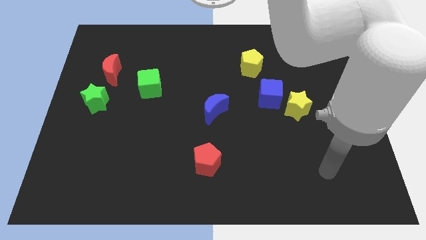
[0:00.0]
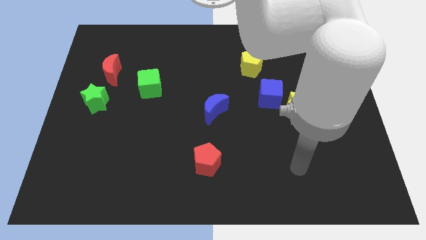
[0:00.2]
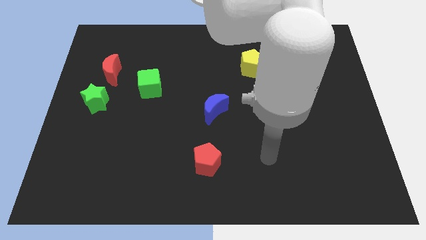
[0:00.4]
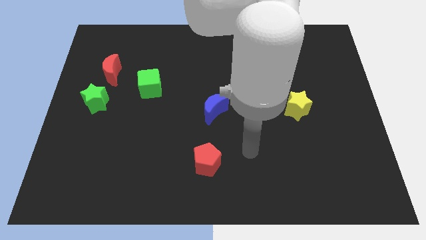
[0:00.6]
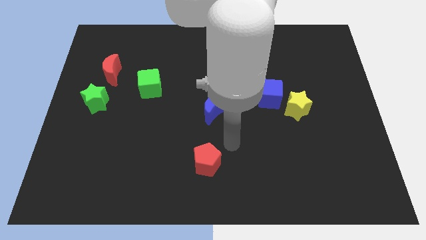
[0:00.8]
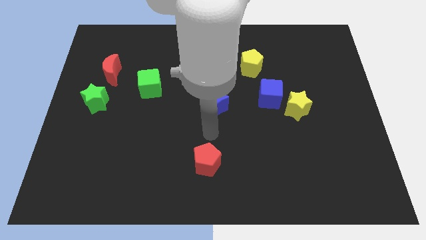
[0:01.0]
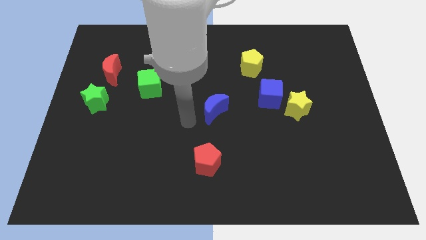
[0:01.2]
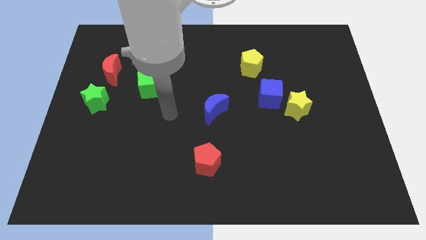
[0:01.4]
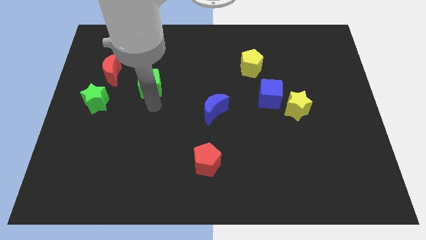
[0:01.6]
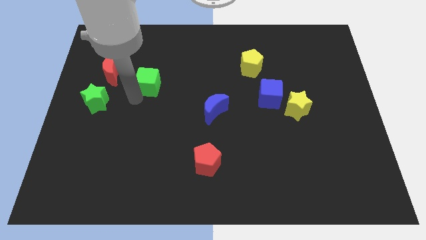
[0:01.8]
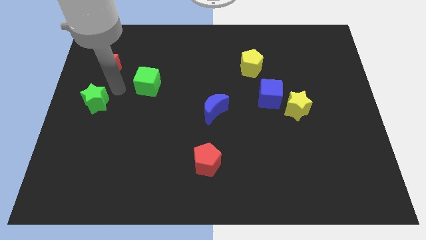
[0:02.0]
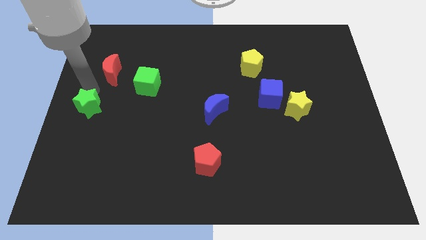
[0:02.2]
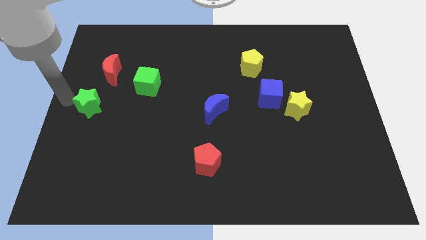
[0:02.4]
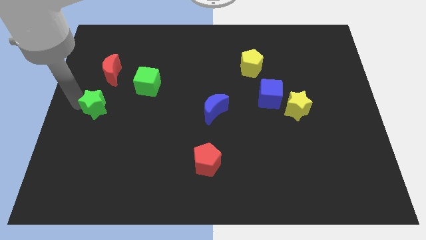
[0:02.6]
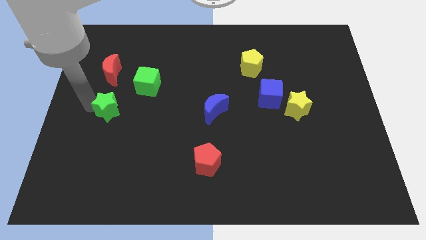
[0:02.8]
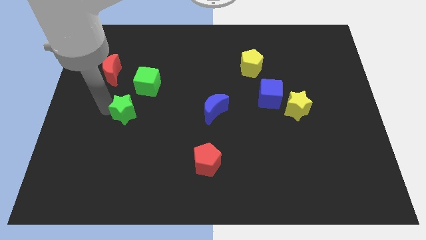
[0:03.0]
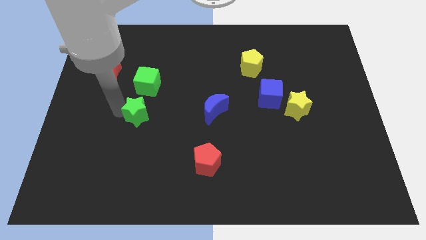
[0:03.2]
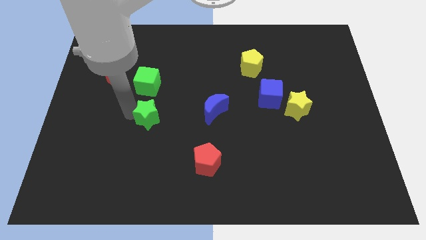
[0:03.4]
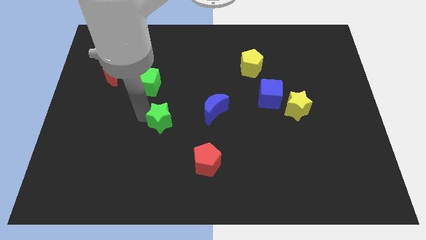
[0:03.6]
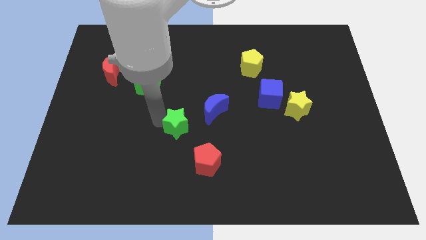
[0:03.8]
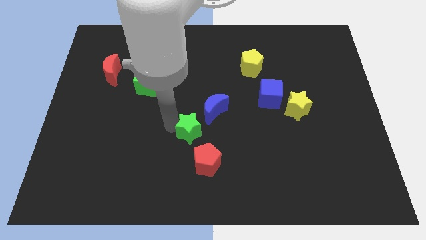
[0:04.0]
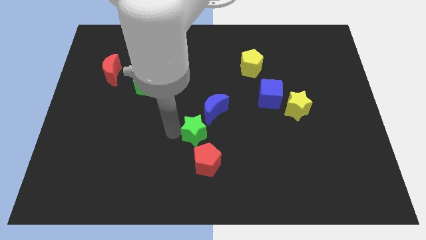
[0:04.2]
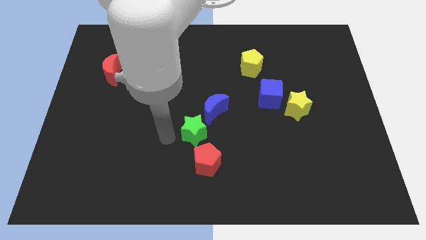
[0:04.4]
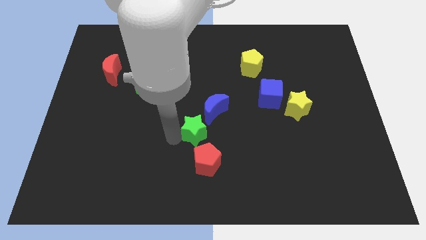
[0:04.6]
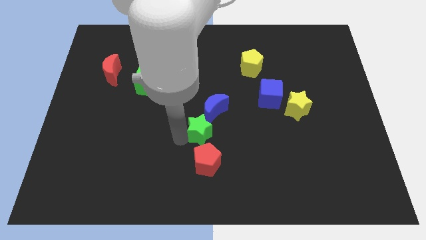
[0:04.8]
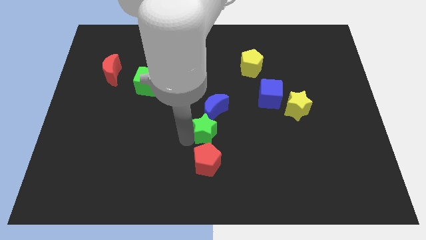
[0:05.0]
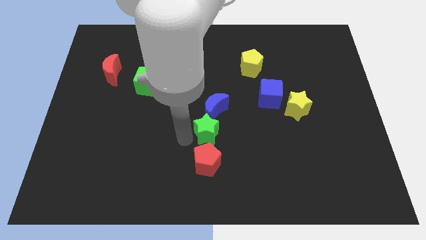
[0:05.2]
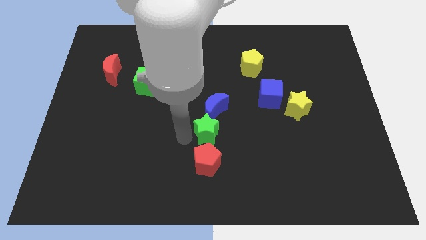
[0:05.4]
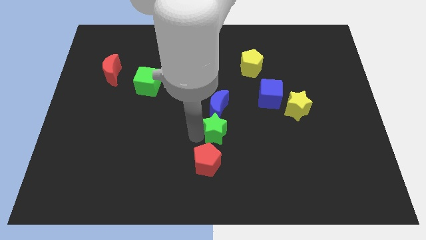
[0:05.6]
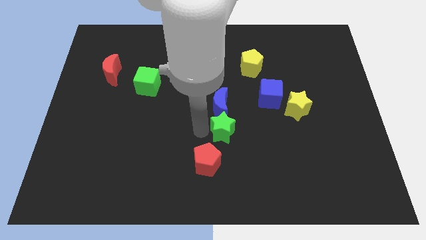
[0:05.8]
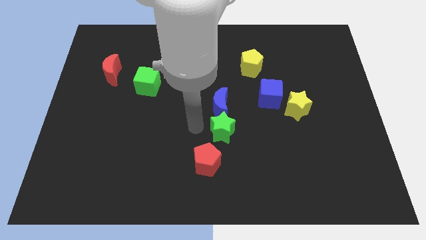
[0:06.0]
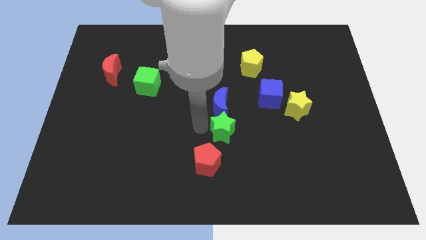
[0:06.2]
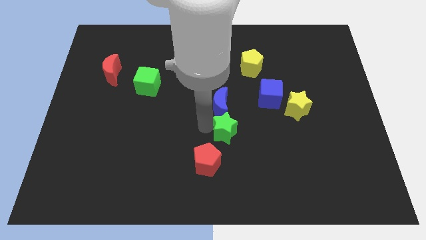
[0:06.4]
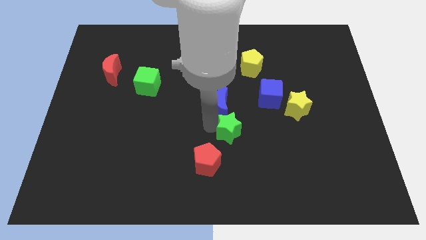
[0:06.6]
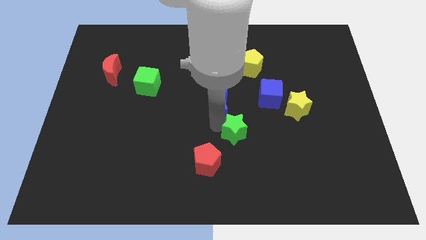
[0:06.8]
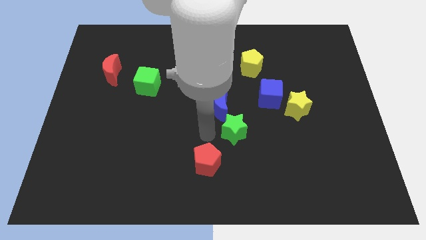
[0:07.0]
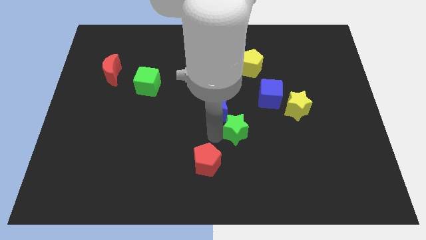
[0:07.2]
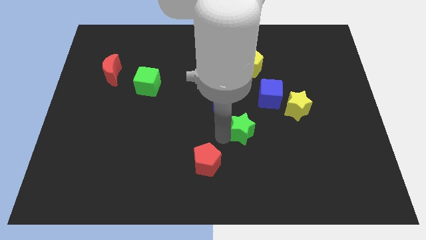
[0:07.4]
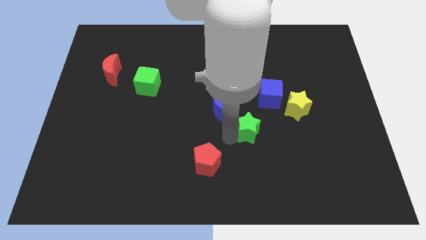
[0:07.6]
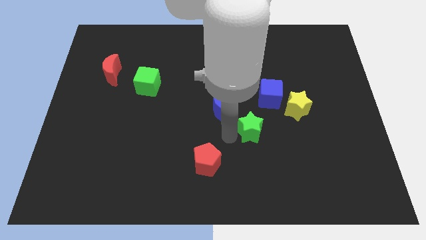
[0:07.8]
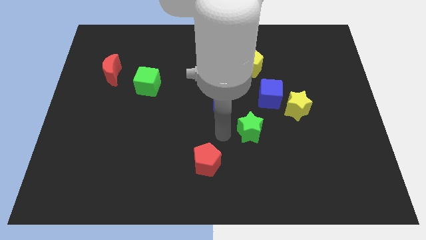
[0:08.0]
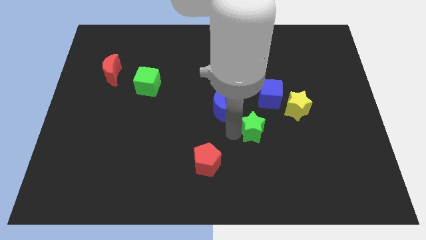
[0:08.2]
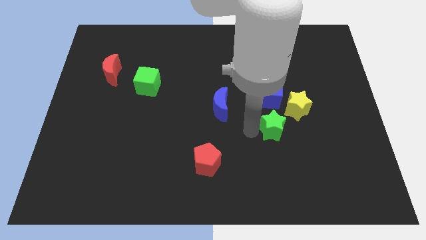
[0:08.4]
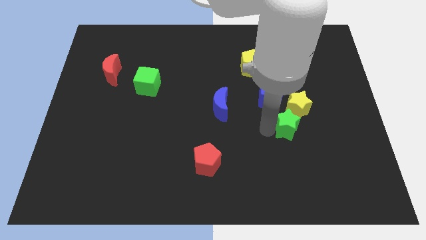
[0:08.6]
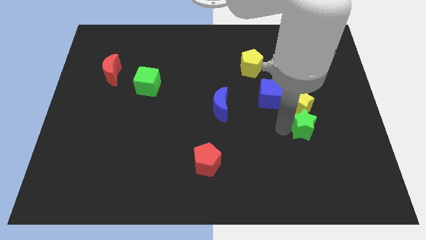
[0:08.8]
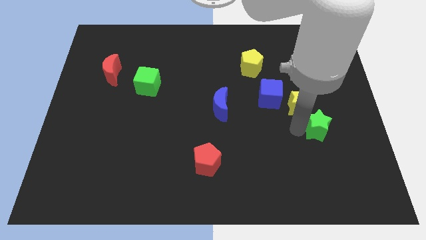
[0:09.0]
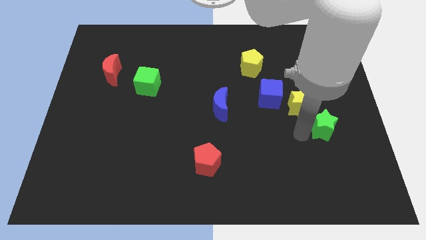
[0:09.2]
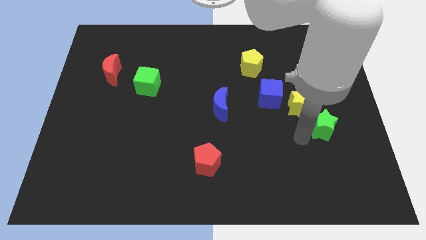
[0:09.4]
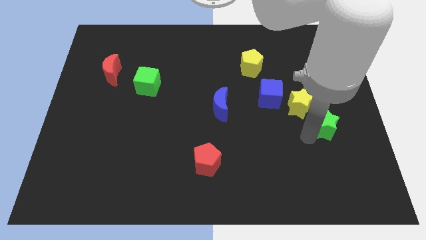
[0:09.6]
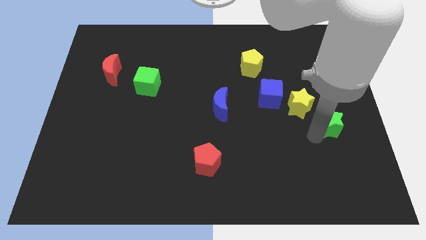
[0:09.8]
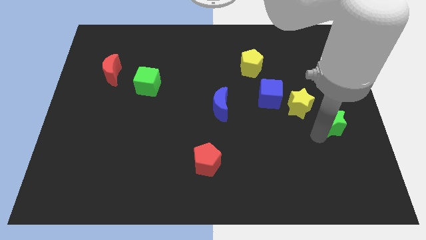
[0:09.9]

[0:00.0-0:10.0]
move the green star to the right side of the board

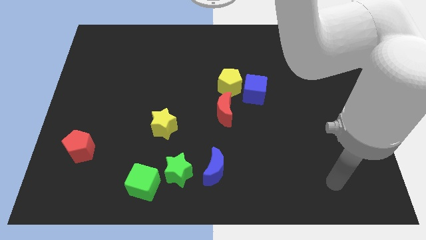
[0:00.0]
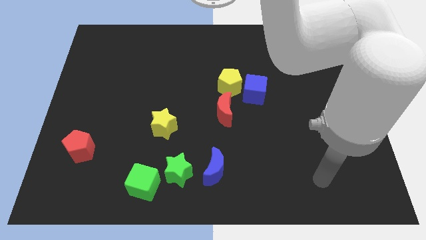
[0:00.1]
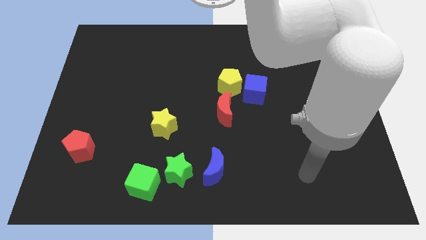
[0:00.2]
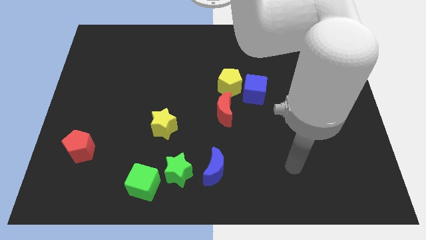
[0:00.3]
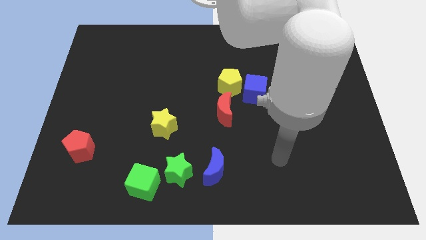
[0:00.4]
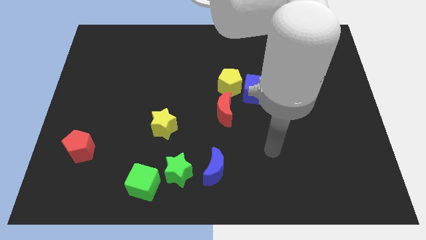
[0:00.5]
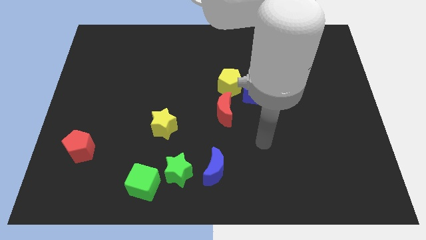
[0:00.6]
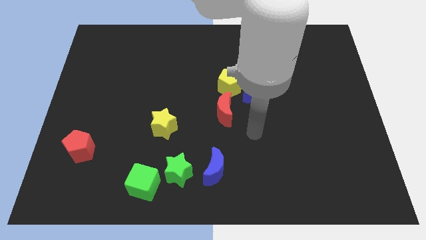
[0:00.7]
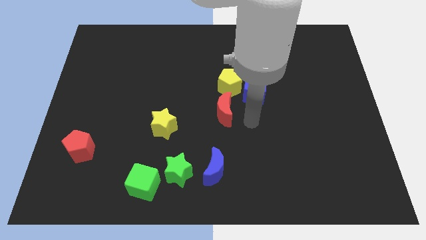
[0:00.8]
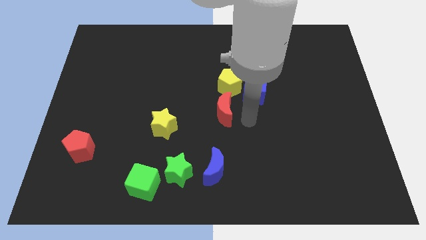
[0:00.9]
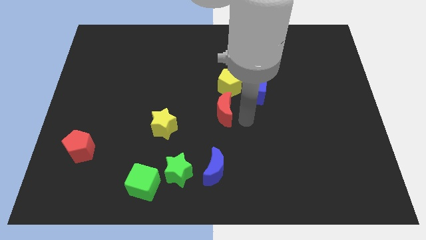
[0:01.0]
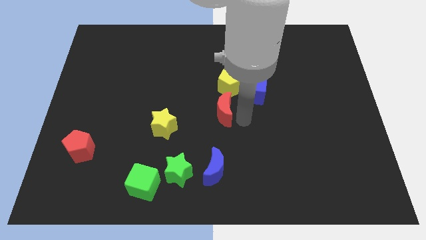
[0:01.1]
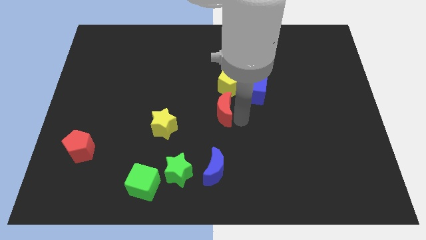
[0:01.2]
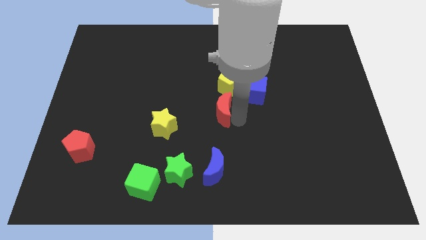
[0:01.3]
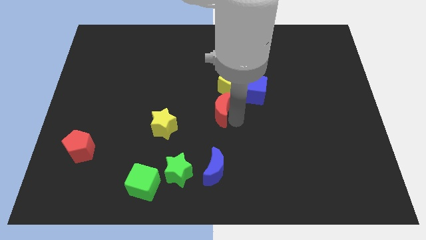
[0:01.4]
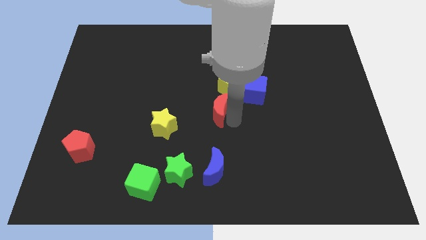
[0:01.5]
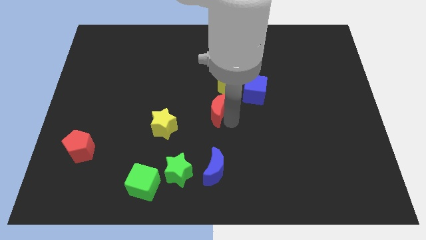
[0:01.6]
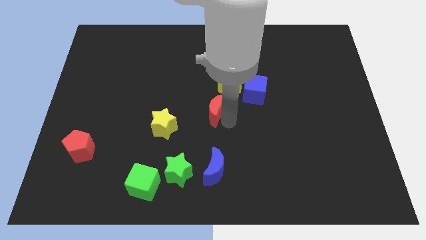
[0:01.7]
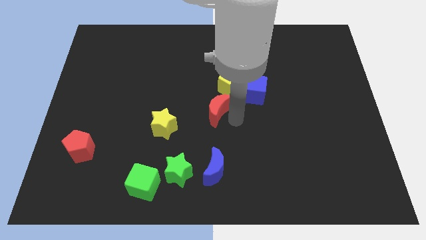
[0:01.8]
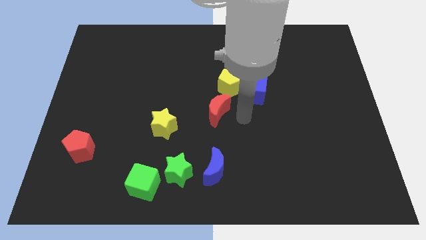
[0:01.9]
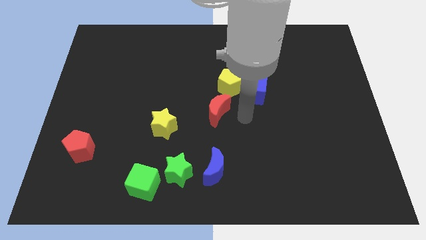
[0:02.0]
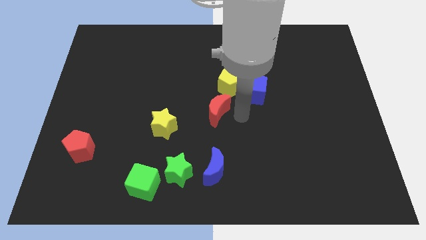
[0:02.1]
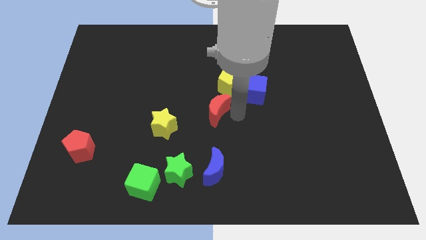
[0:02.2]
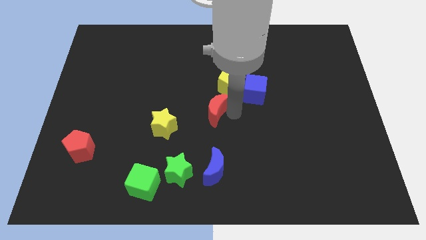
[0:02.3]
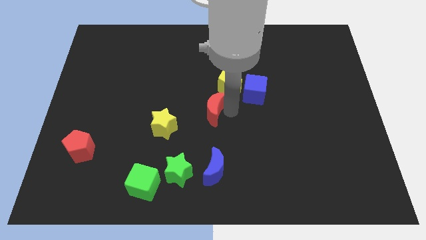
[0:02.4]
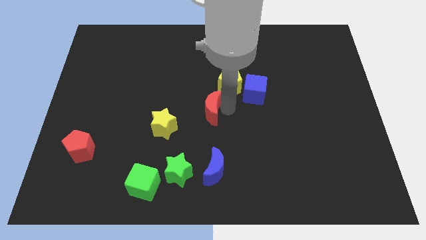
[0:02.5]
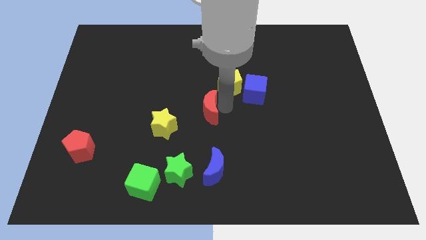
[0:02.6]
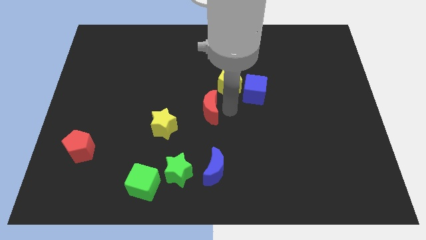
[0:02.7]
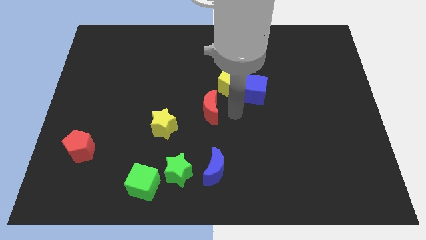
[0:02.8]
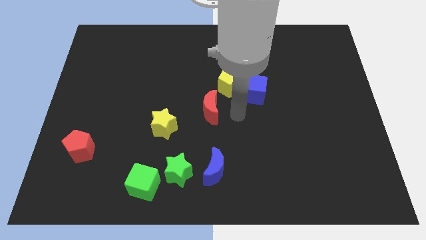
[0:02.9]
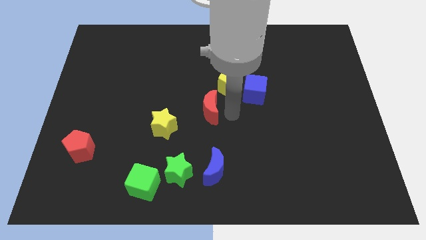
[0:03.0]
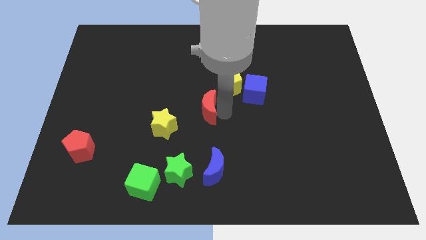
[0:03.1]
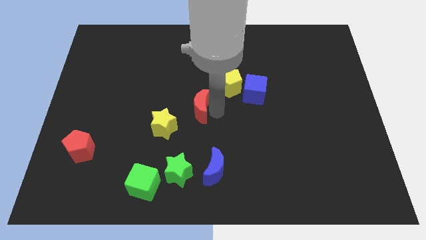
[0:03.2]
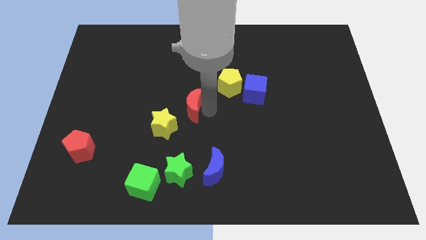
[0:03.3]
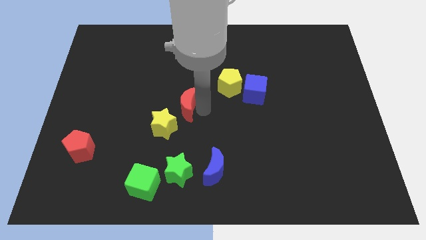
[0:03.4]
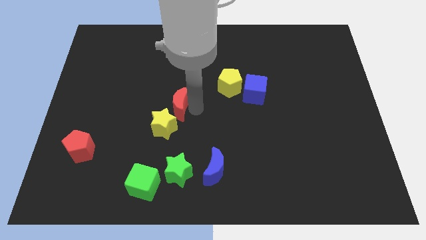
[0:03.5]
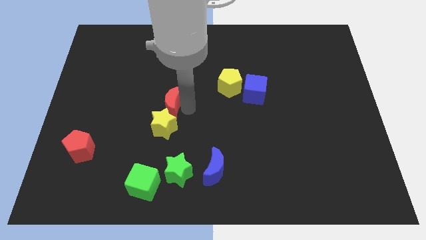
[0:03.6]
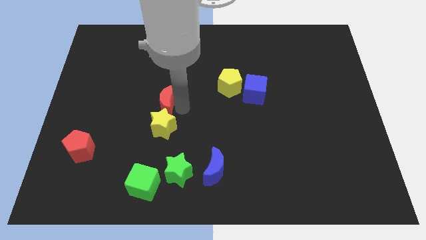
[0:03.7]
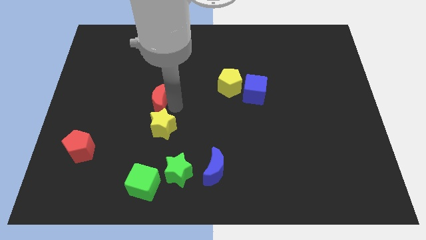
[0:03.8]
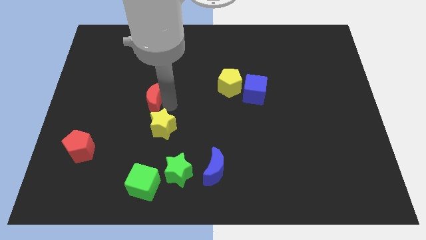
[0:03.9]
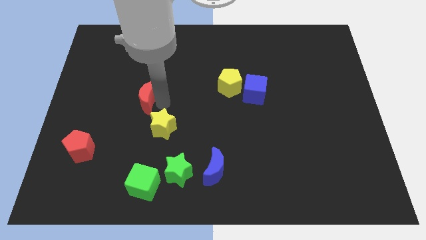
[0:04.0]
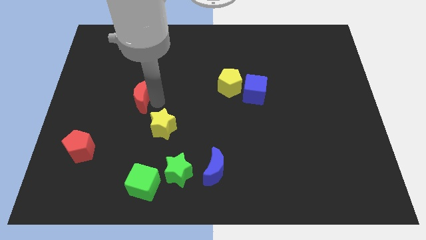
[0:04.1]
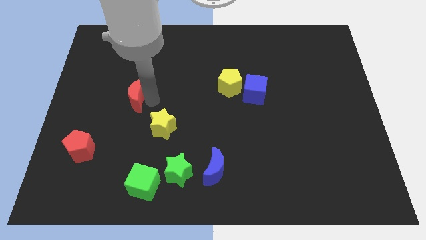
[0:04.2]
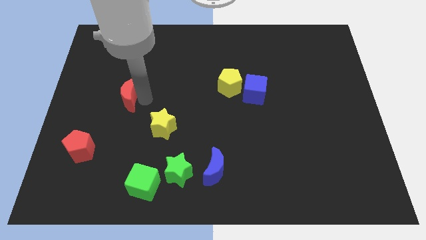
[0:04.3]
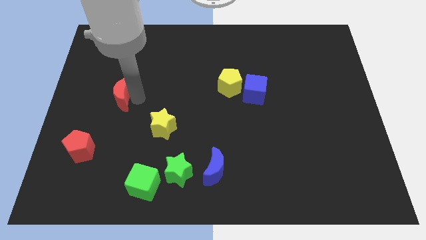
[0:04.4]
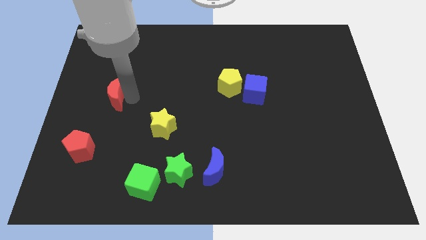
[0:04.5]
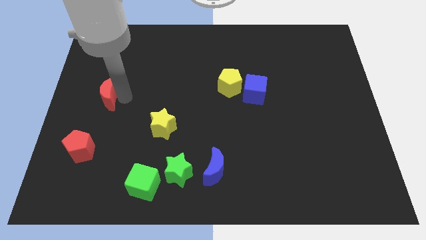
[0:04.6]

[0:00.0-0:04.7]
push the red moon to the center left
